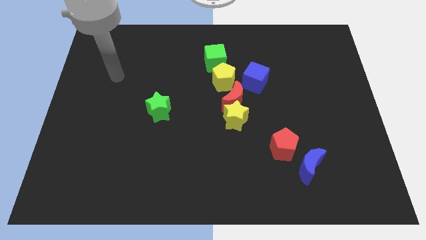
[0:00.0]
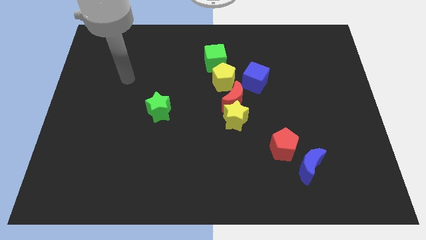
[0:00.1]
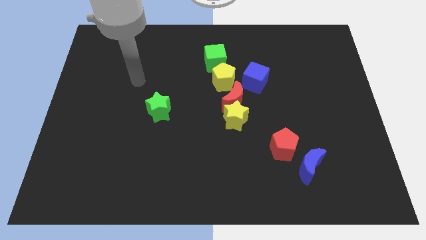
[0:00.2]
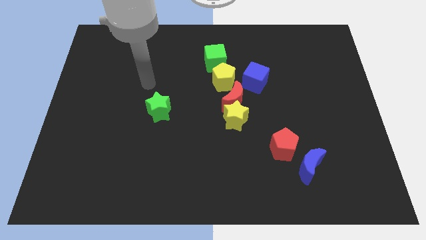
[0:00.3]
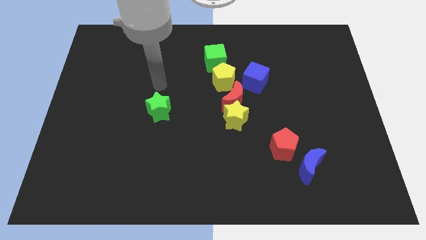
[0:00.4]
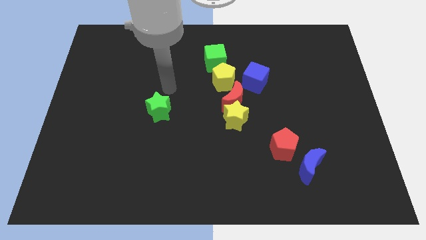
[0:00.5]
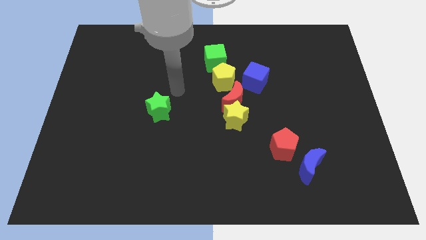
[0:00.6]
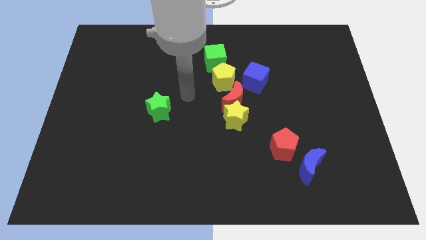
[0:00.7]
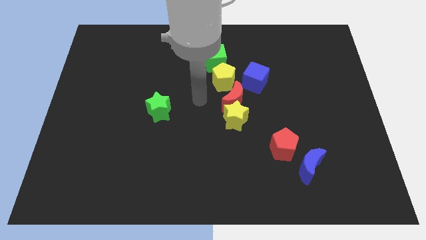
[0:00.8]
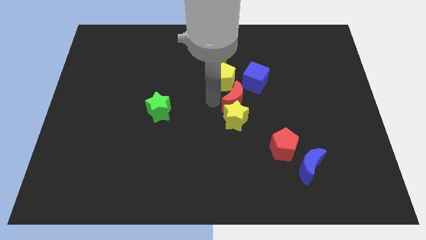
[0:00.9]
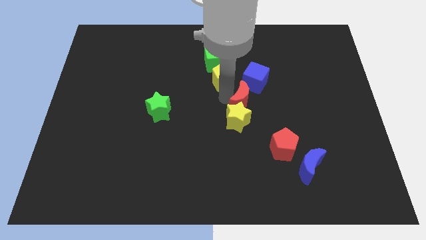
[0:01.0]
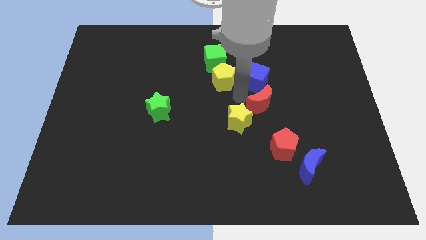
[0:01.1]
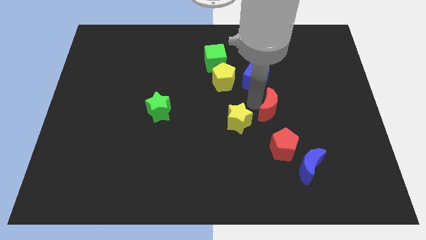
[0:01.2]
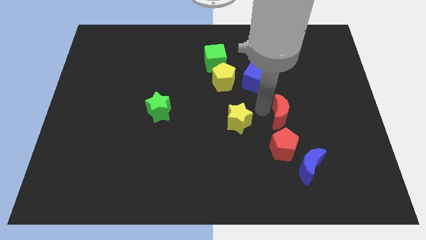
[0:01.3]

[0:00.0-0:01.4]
separate the yellow star from the red moon

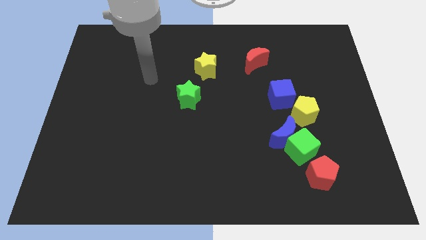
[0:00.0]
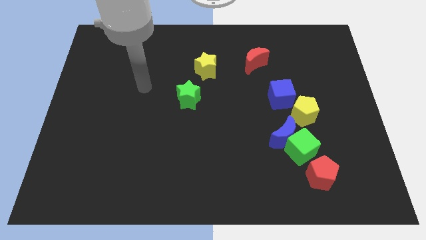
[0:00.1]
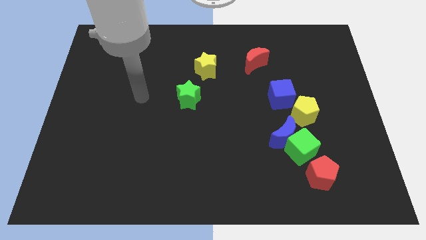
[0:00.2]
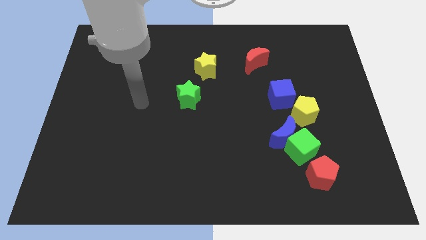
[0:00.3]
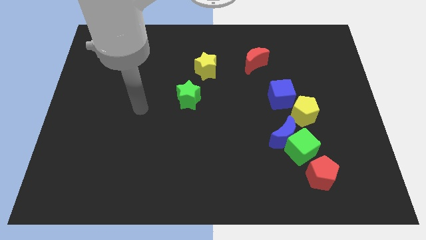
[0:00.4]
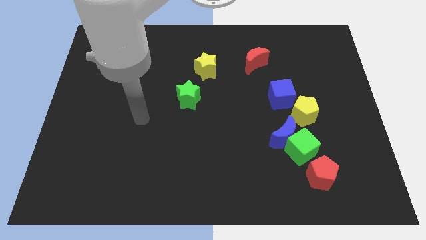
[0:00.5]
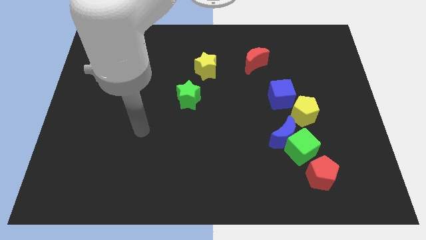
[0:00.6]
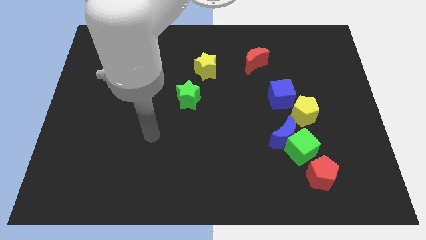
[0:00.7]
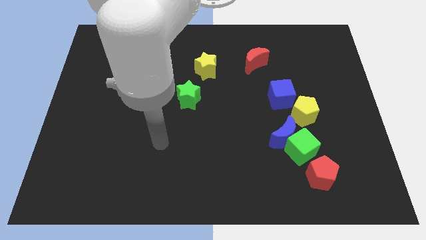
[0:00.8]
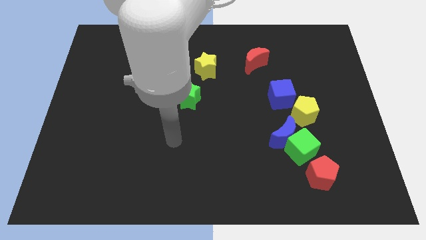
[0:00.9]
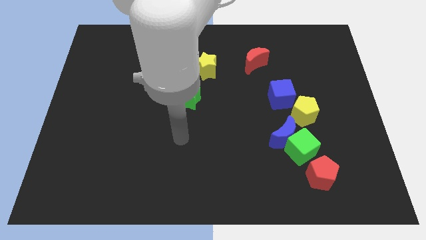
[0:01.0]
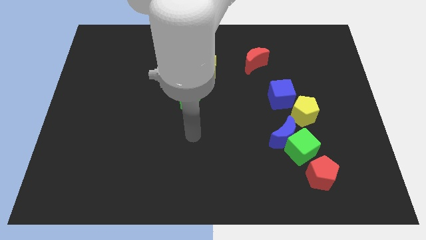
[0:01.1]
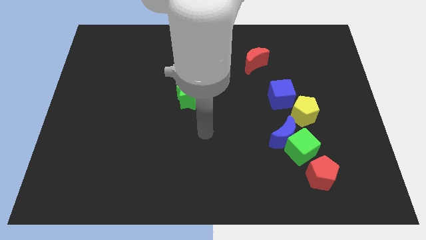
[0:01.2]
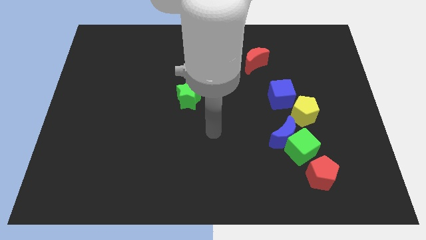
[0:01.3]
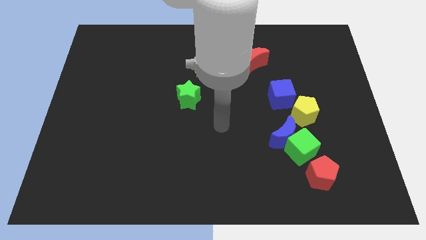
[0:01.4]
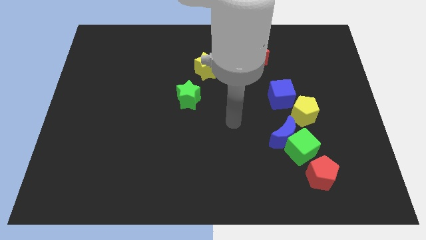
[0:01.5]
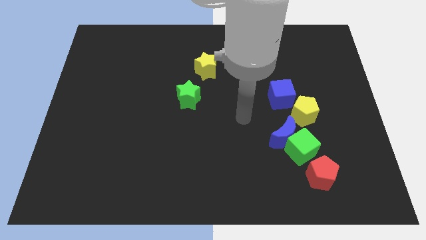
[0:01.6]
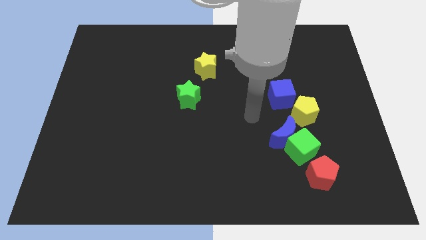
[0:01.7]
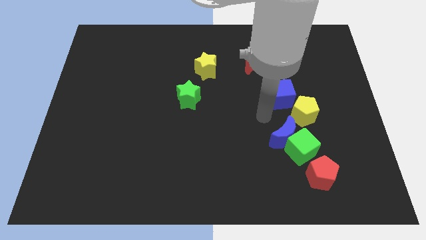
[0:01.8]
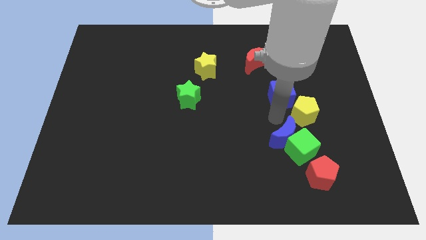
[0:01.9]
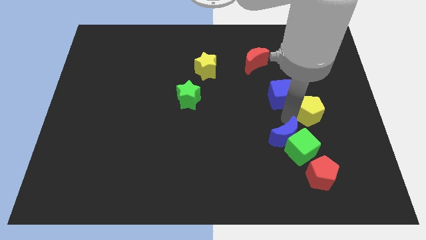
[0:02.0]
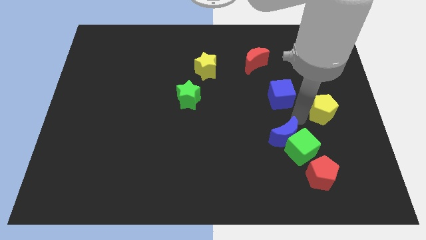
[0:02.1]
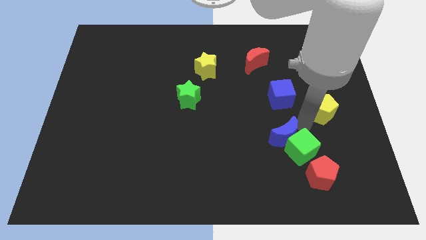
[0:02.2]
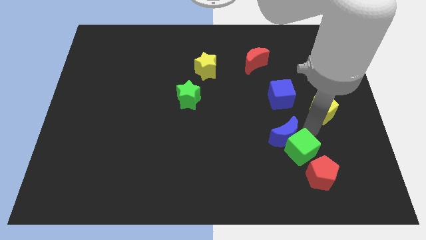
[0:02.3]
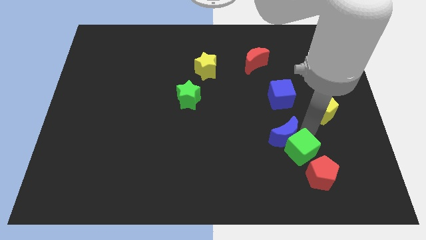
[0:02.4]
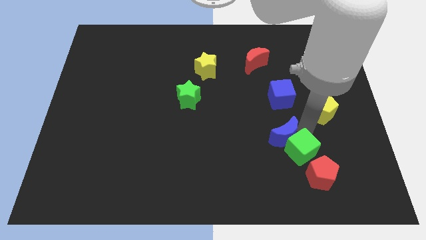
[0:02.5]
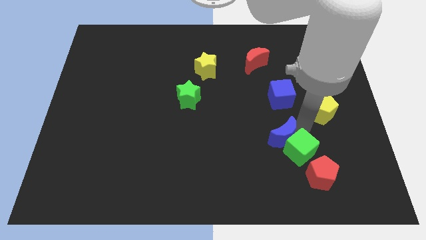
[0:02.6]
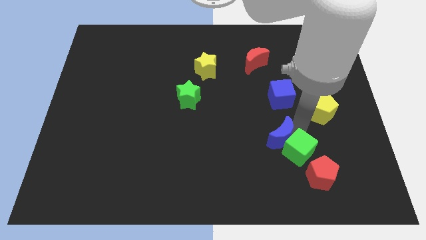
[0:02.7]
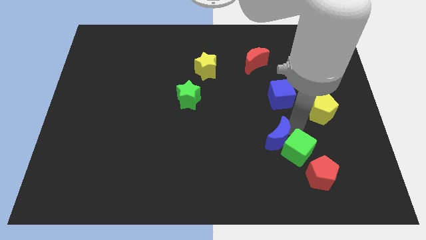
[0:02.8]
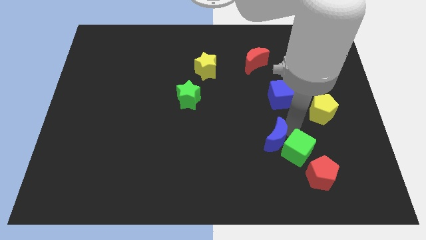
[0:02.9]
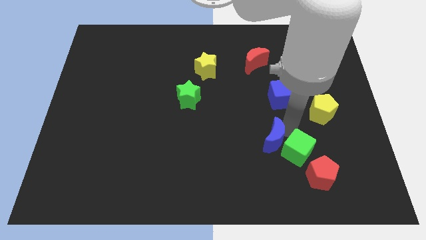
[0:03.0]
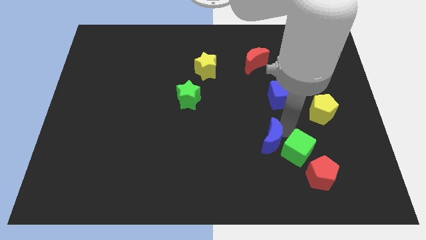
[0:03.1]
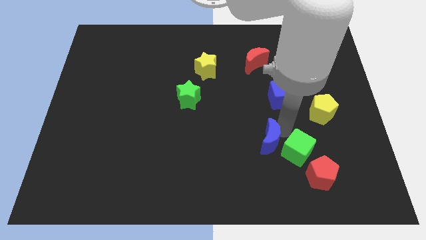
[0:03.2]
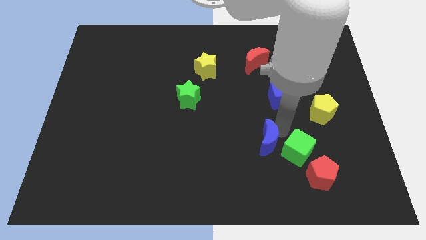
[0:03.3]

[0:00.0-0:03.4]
pull the blue moon apart from the green cube and yellow pentagon

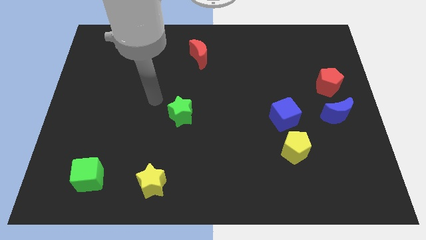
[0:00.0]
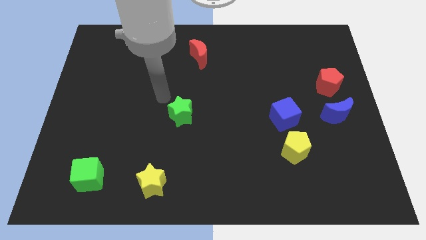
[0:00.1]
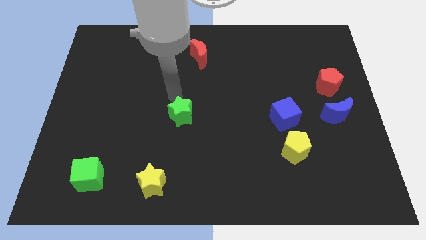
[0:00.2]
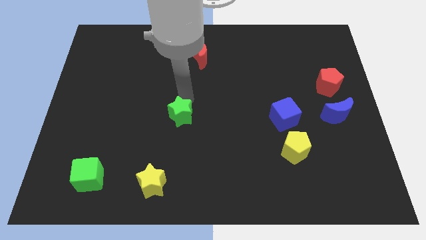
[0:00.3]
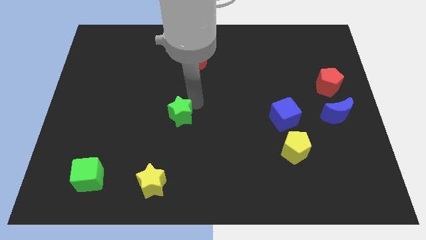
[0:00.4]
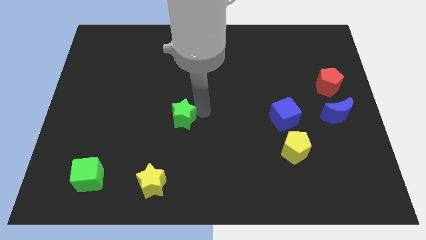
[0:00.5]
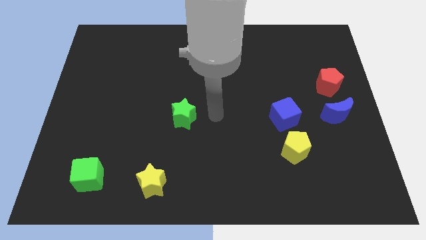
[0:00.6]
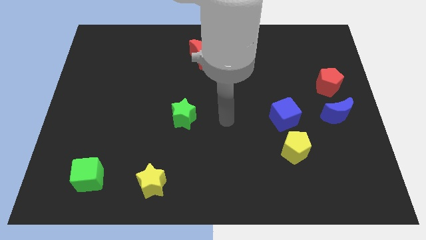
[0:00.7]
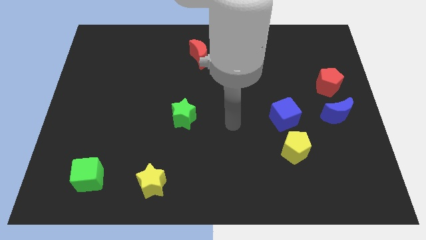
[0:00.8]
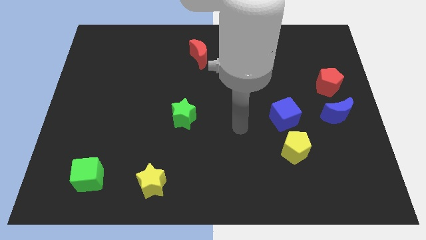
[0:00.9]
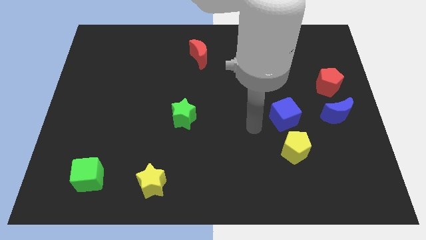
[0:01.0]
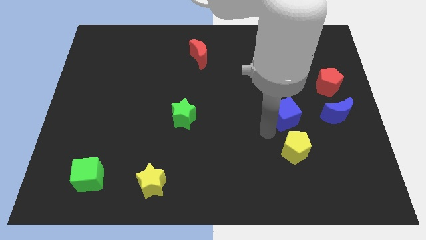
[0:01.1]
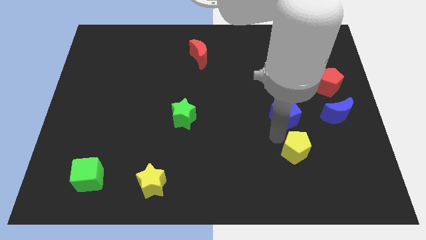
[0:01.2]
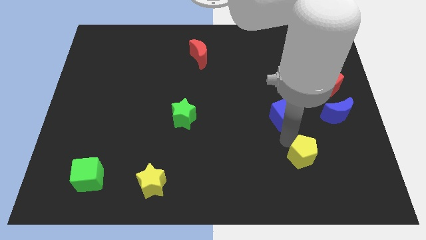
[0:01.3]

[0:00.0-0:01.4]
move the blue cube away from the yellow pentagon

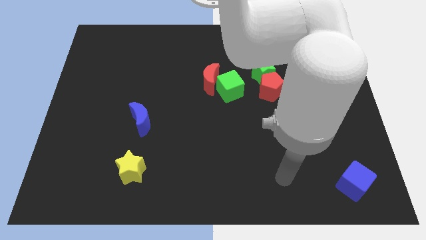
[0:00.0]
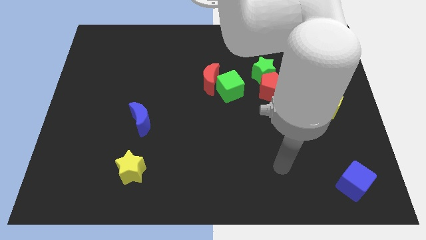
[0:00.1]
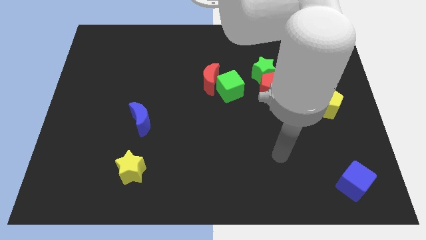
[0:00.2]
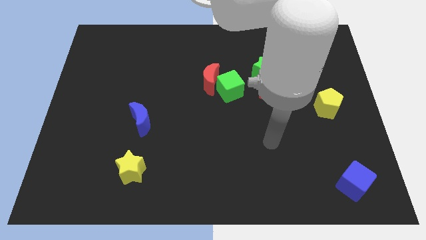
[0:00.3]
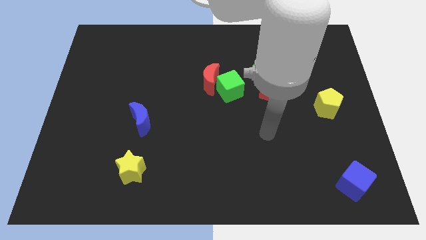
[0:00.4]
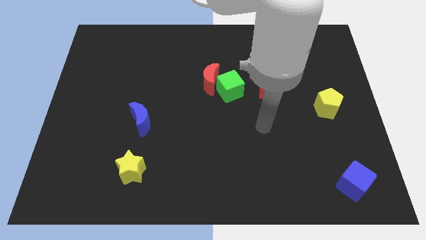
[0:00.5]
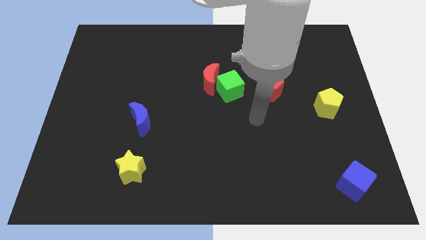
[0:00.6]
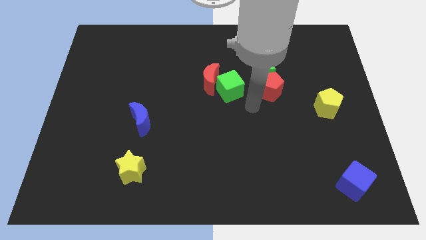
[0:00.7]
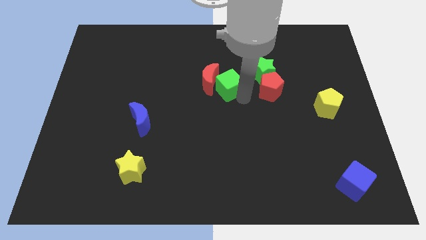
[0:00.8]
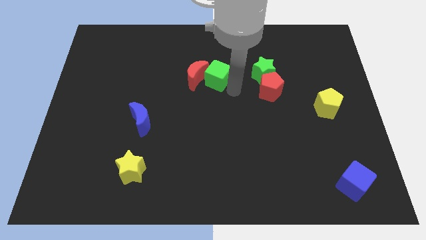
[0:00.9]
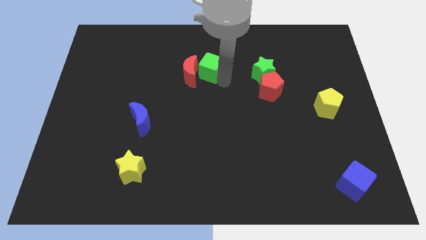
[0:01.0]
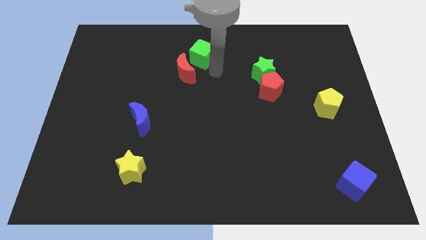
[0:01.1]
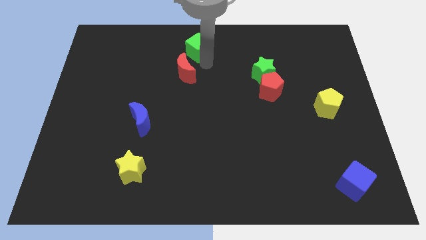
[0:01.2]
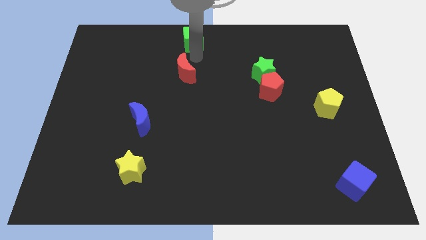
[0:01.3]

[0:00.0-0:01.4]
move the red moon away from the green cube

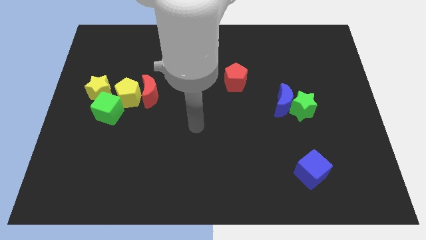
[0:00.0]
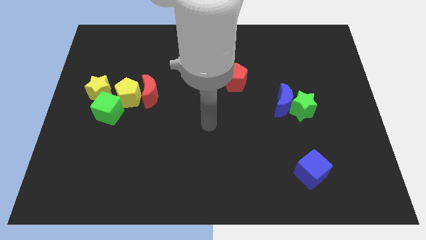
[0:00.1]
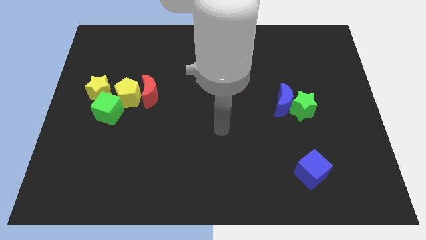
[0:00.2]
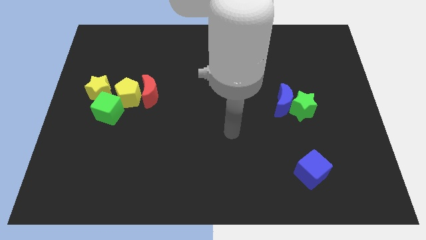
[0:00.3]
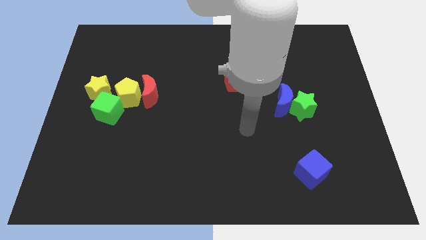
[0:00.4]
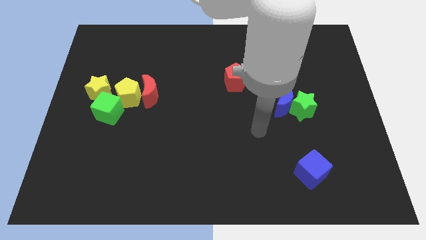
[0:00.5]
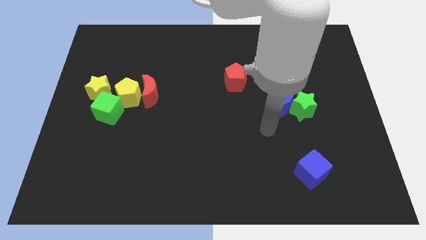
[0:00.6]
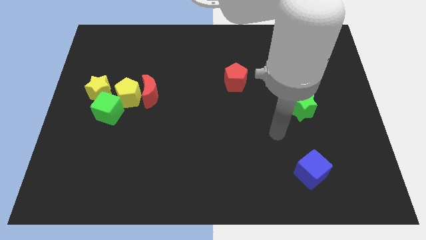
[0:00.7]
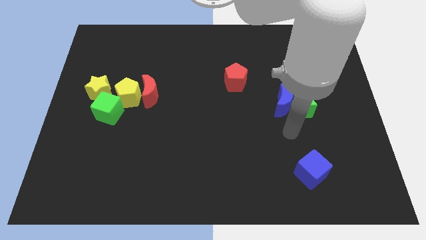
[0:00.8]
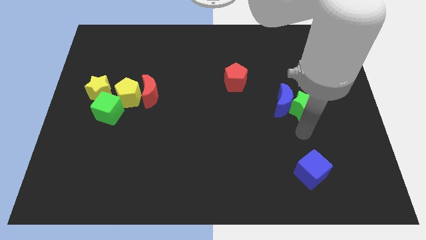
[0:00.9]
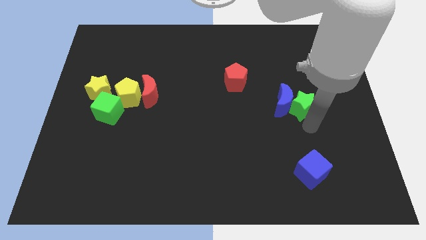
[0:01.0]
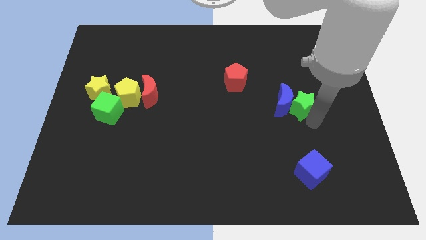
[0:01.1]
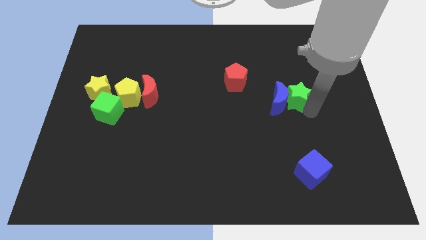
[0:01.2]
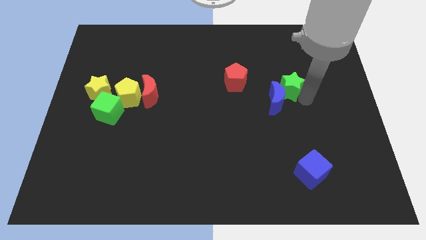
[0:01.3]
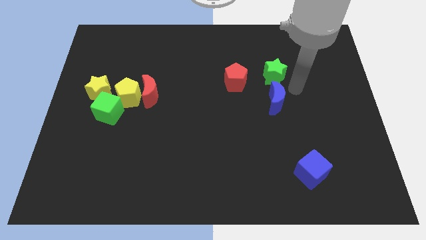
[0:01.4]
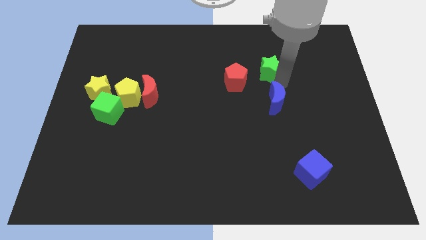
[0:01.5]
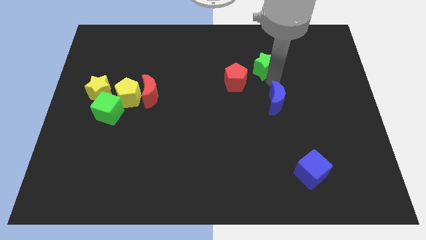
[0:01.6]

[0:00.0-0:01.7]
pull the blue moon apart from the green star

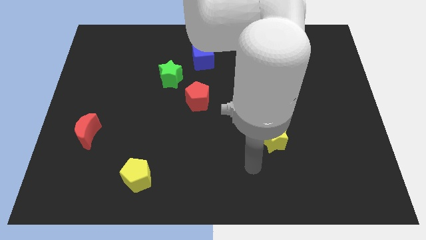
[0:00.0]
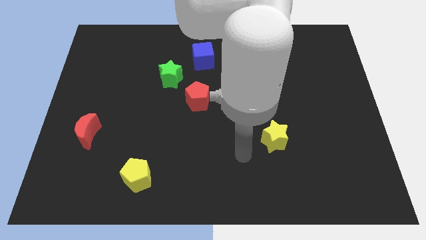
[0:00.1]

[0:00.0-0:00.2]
separate the red pentagon from the green star
